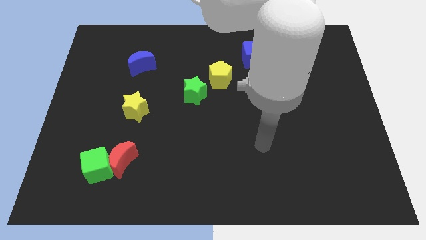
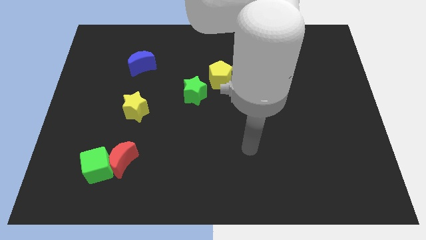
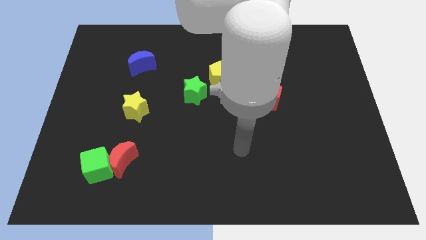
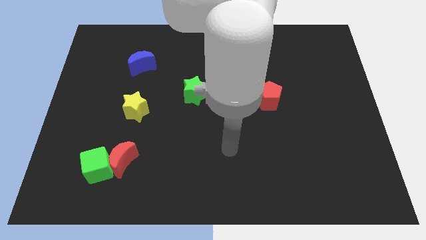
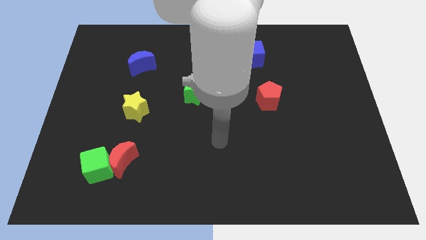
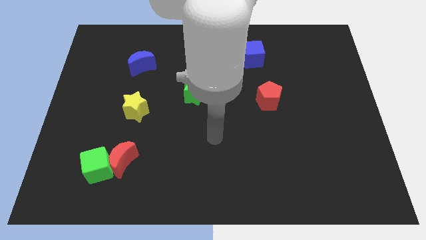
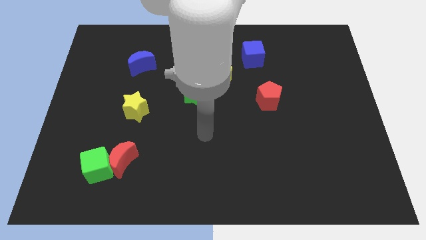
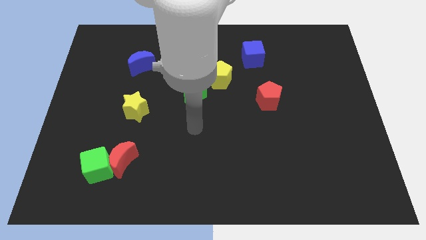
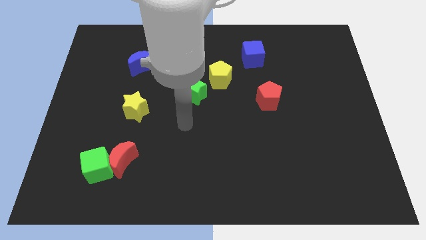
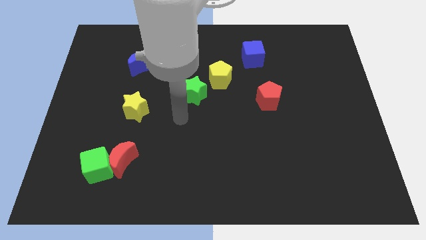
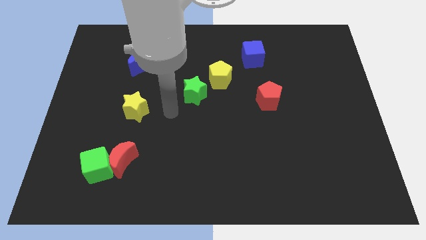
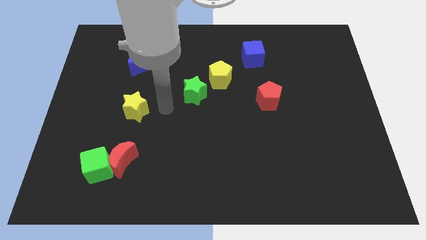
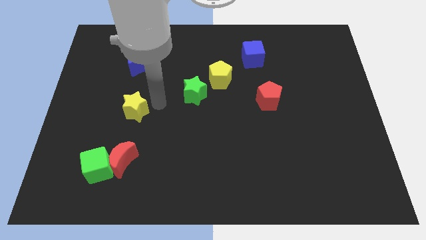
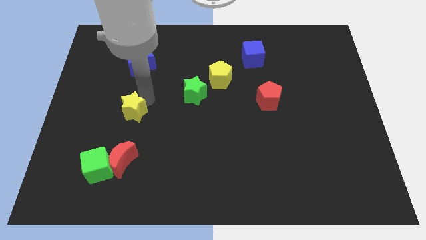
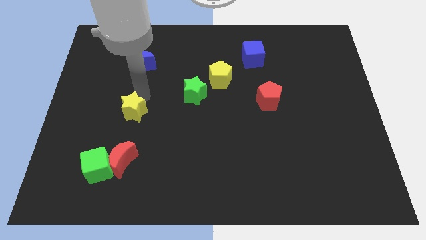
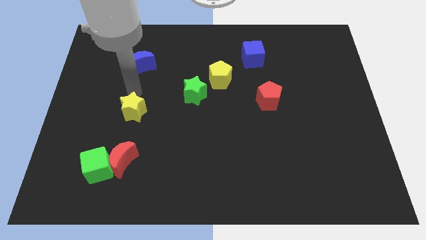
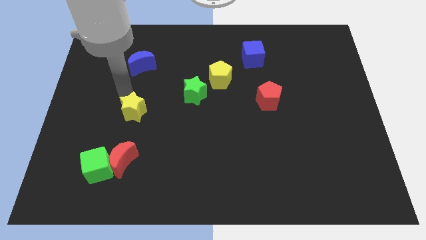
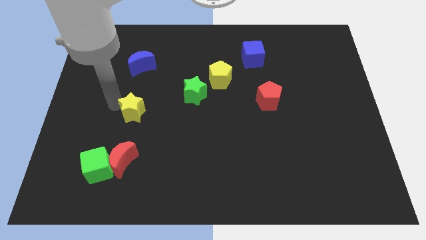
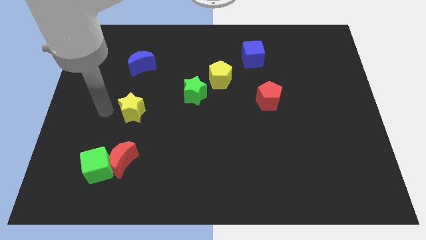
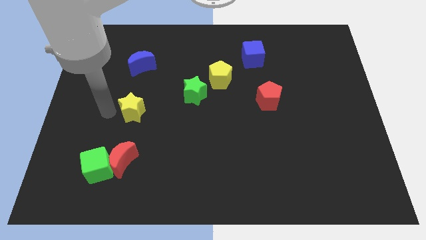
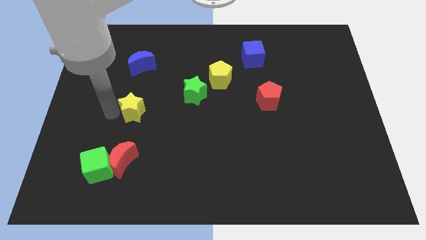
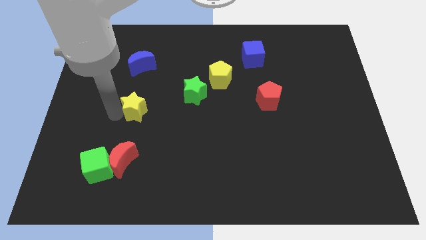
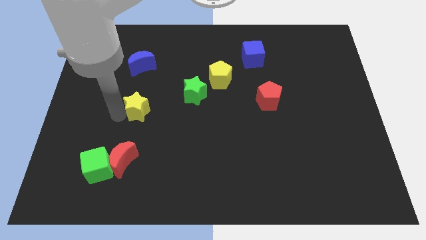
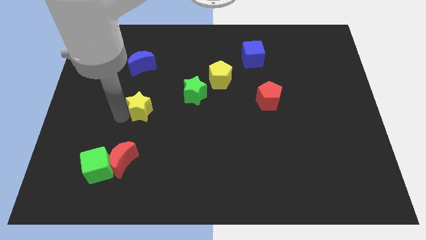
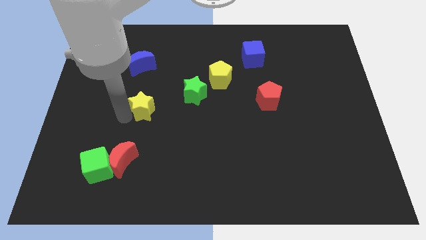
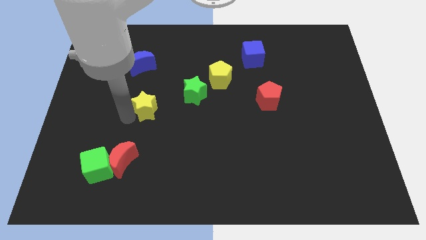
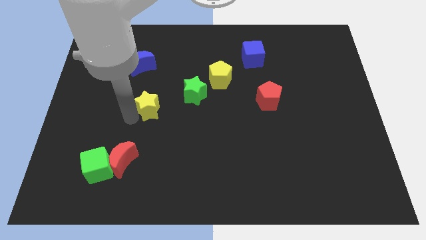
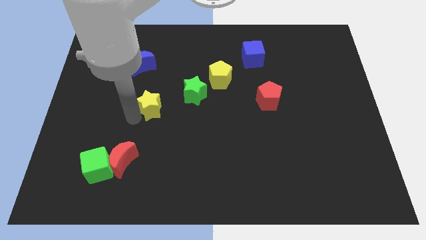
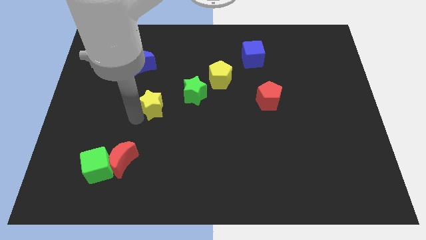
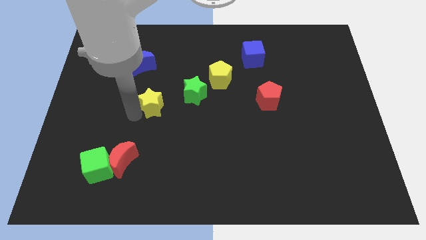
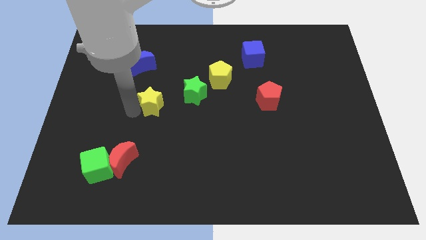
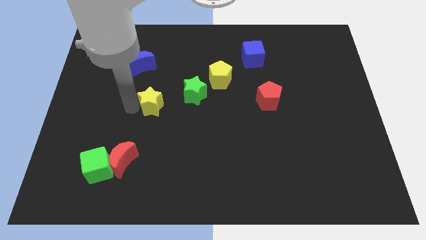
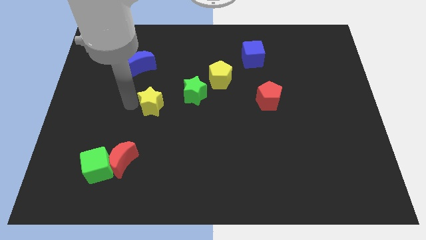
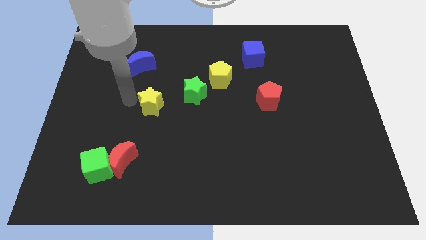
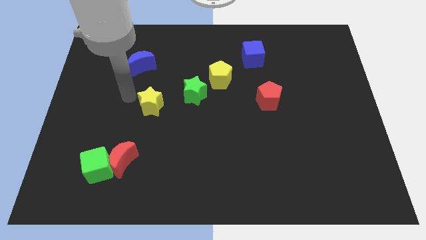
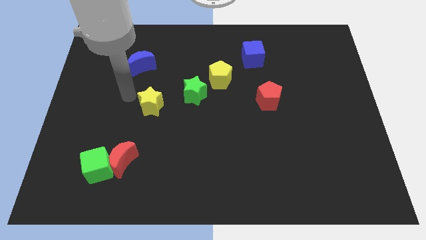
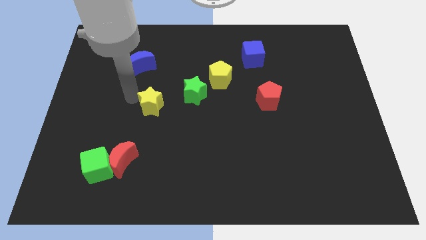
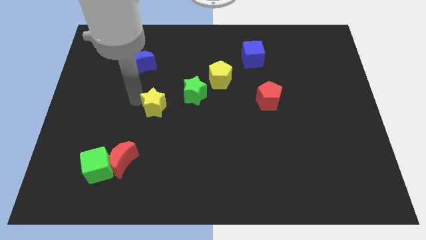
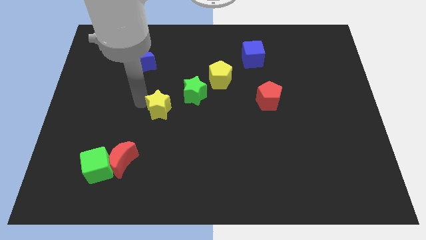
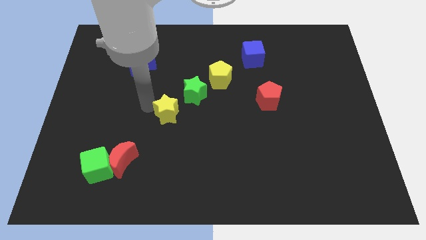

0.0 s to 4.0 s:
push the yellow star a little right

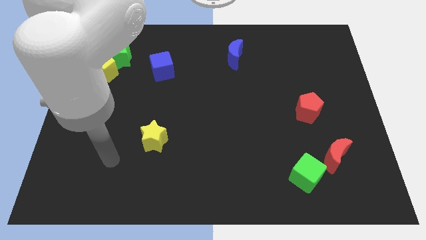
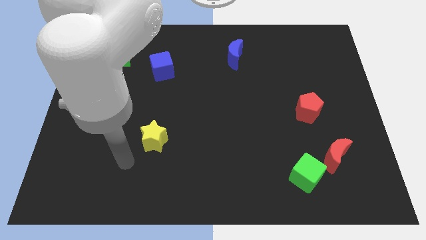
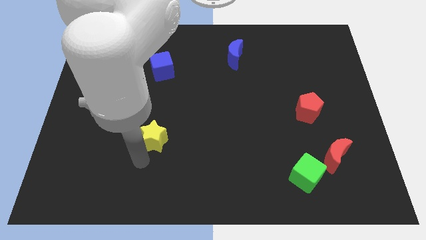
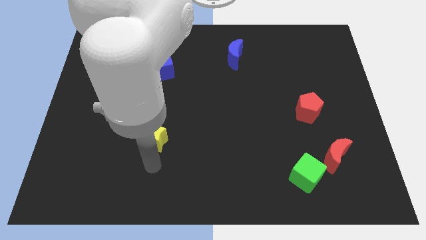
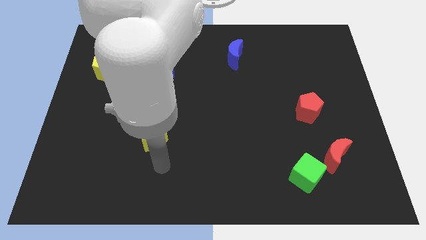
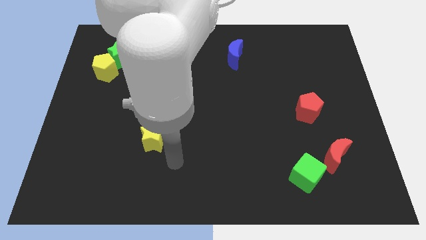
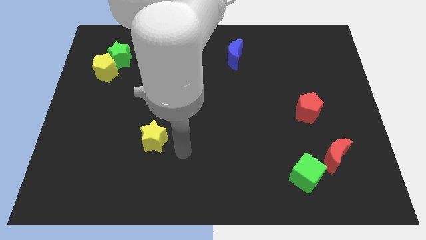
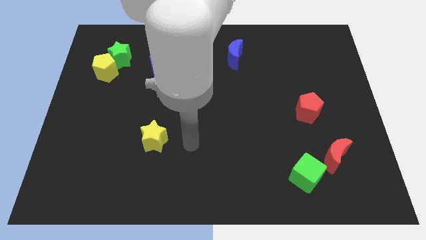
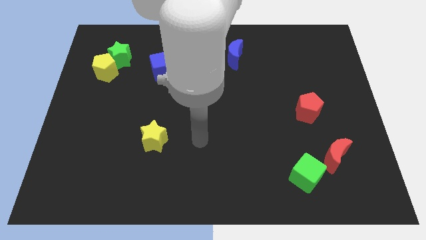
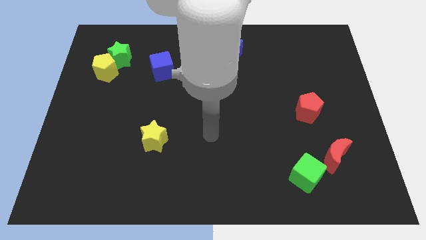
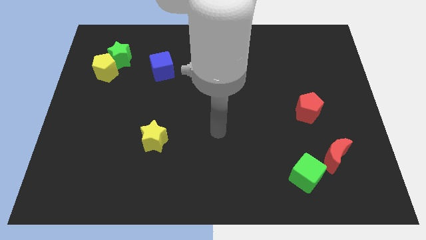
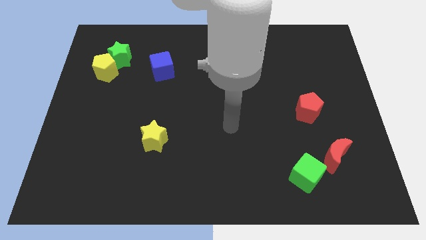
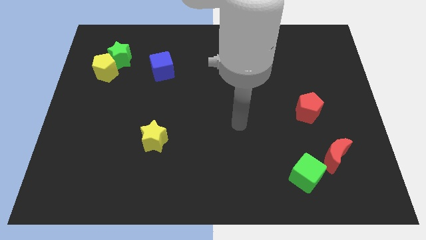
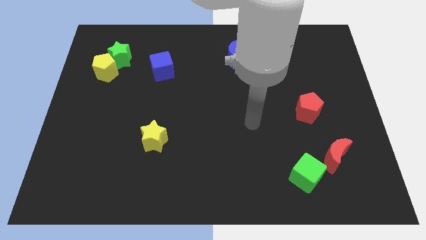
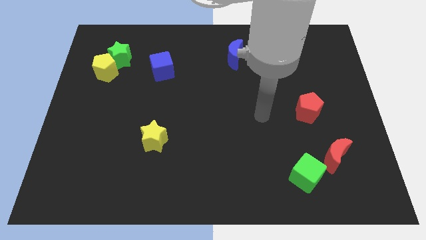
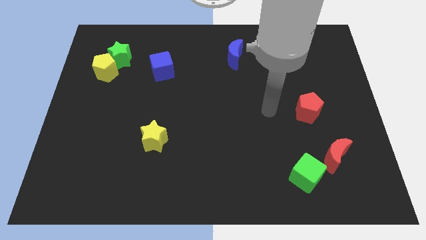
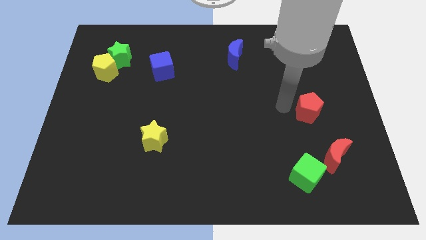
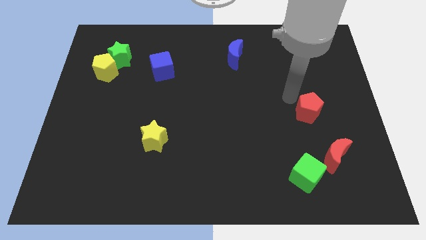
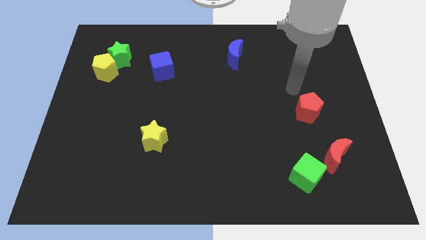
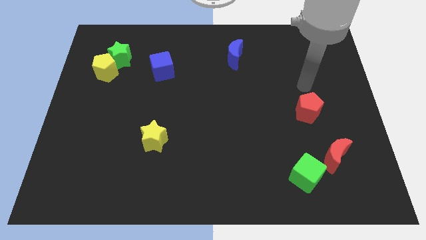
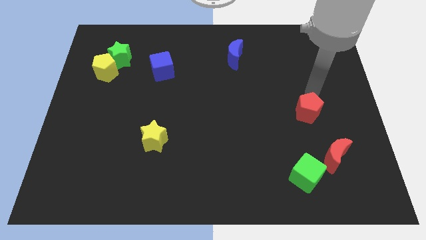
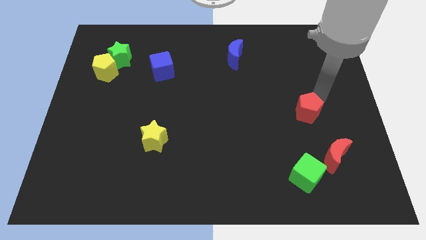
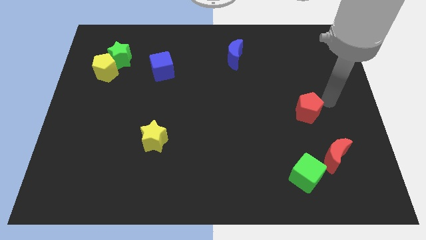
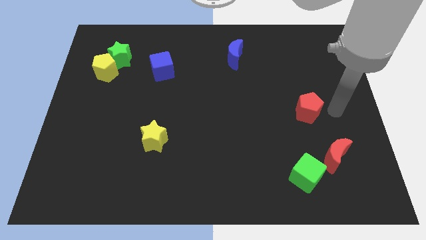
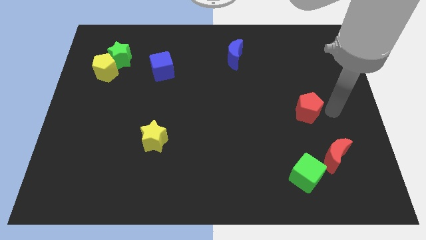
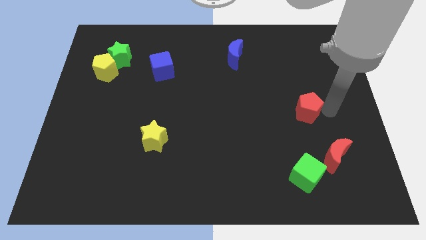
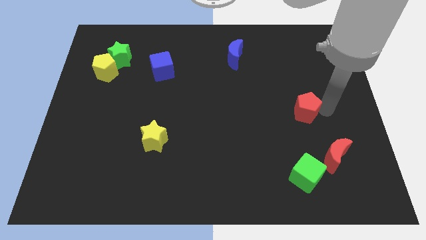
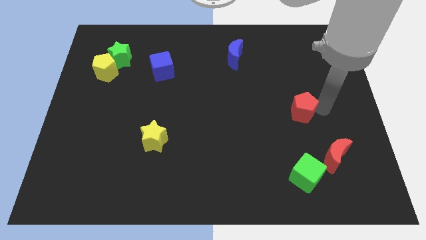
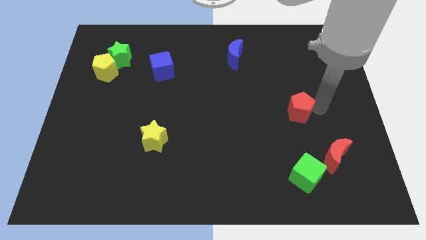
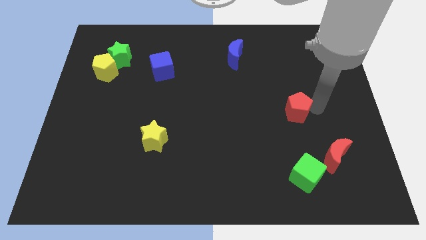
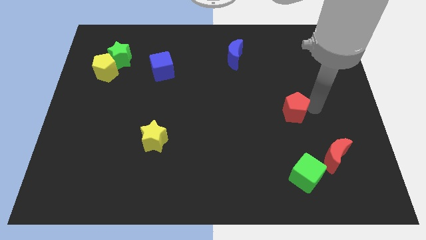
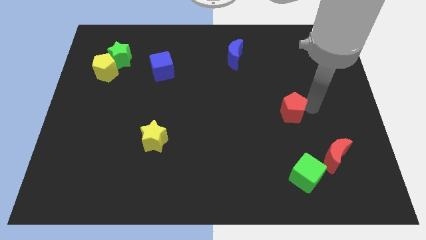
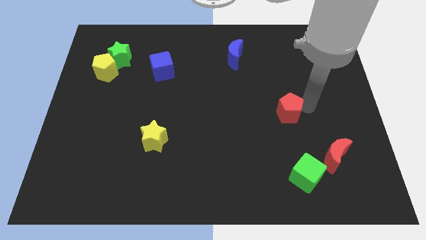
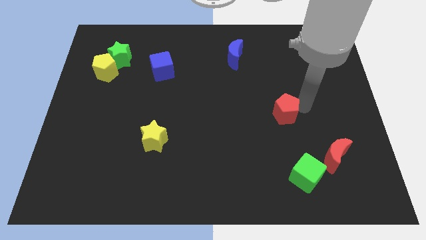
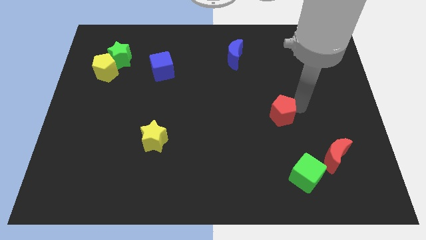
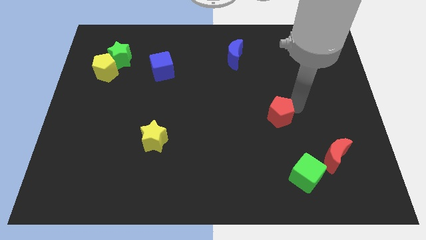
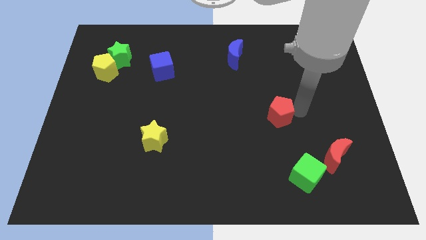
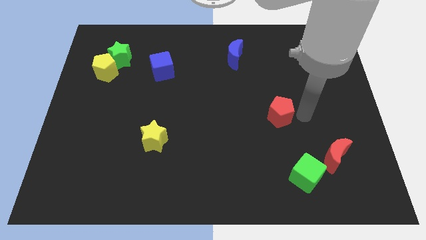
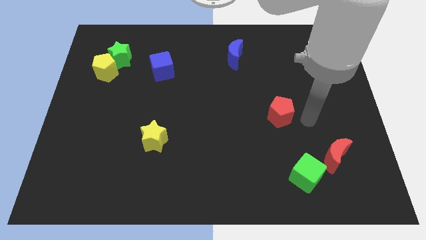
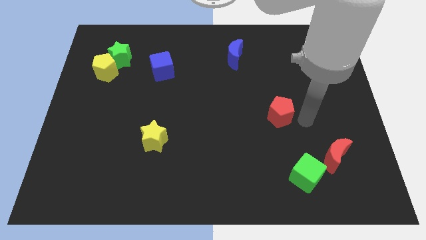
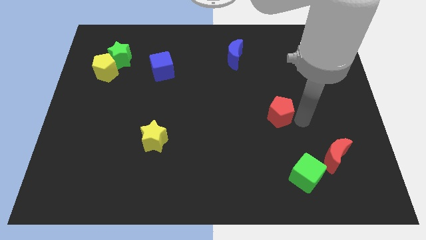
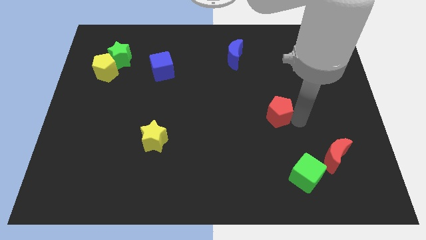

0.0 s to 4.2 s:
push the red pentagon a little to the left
